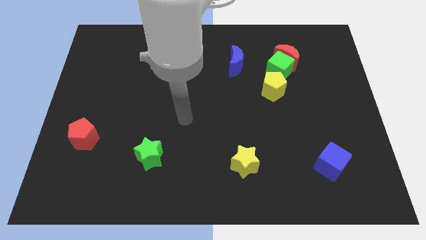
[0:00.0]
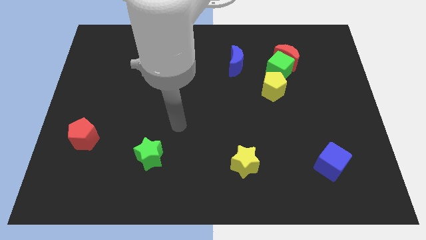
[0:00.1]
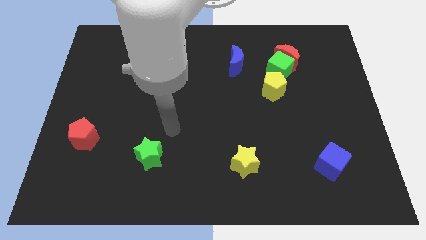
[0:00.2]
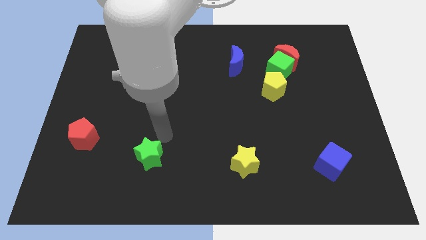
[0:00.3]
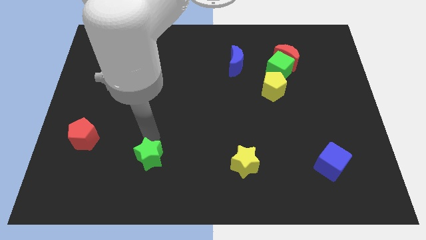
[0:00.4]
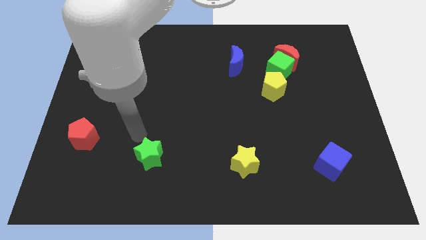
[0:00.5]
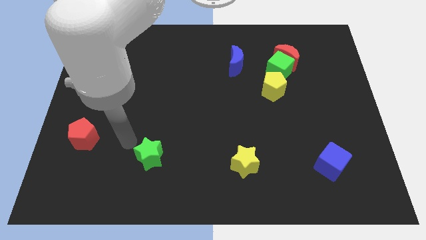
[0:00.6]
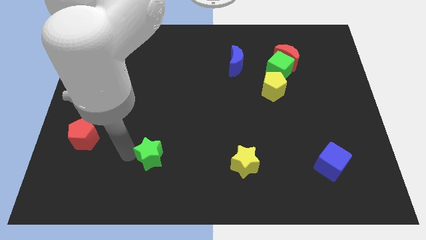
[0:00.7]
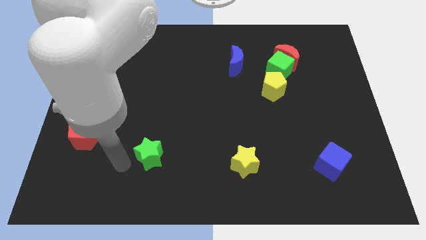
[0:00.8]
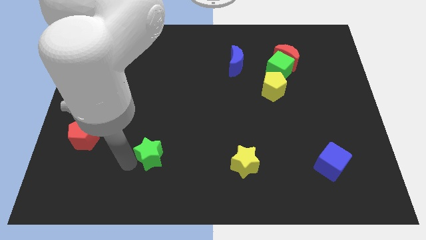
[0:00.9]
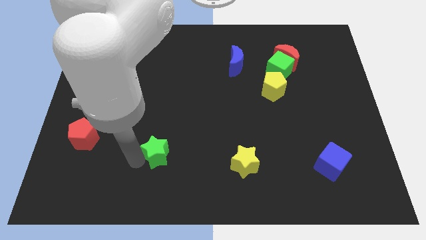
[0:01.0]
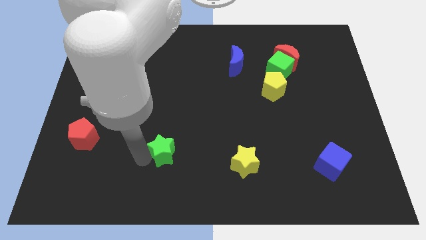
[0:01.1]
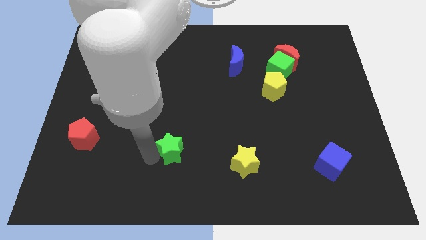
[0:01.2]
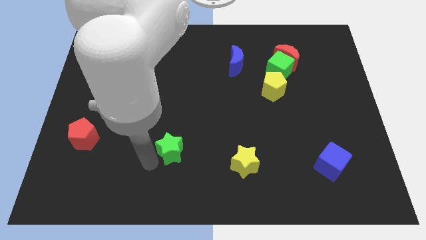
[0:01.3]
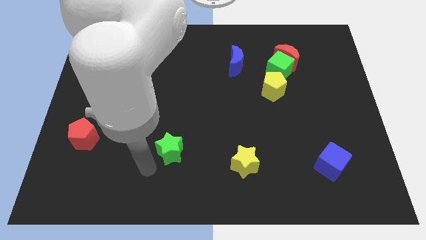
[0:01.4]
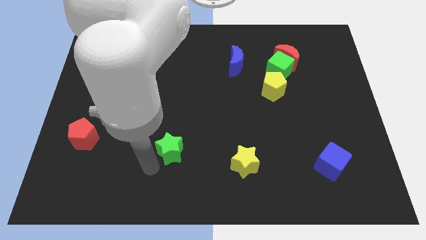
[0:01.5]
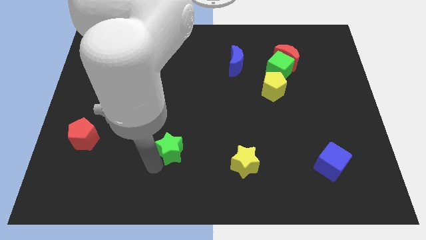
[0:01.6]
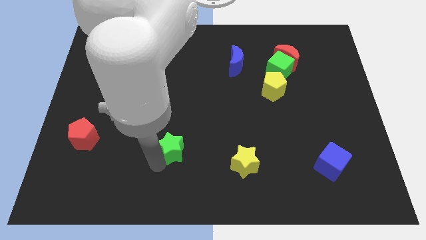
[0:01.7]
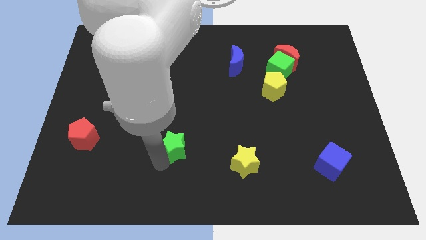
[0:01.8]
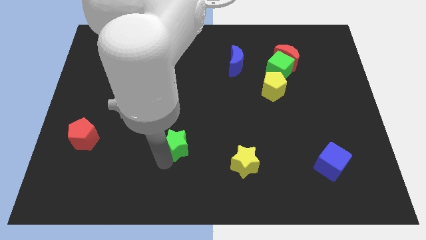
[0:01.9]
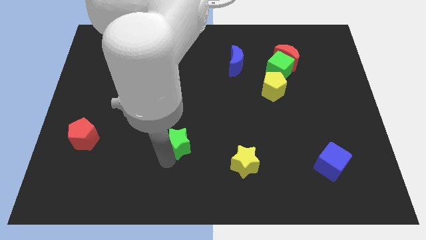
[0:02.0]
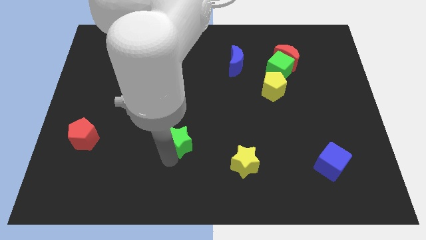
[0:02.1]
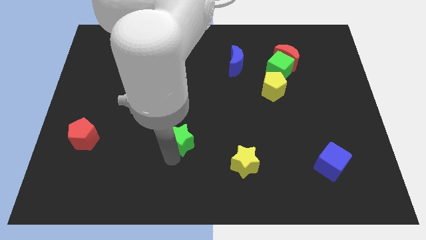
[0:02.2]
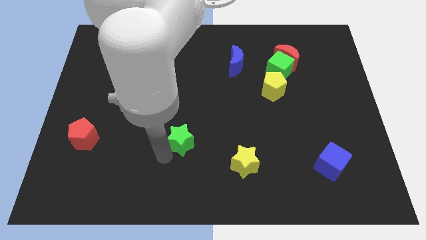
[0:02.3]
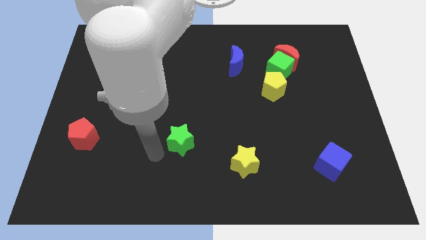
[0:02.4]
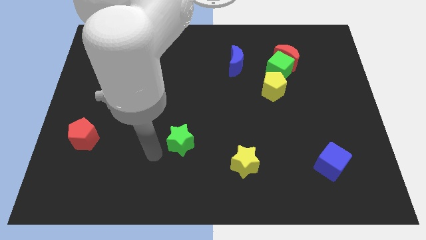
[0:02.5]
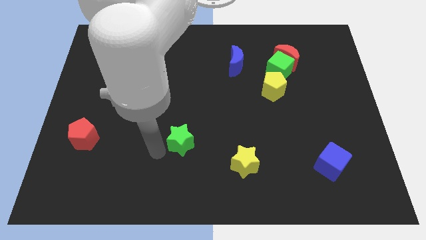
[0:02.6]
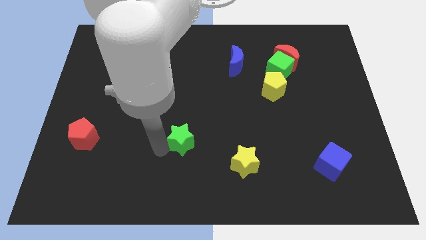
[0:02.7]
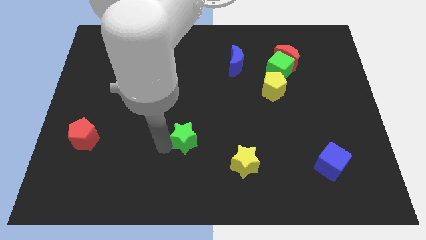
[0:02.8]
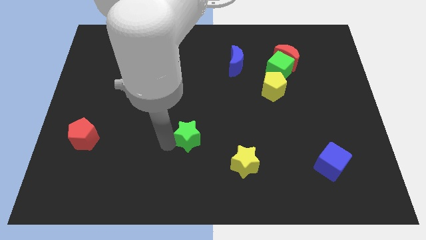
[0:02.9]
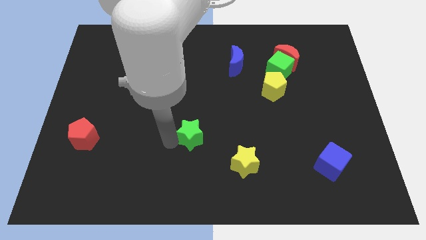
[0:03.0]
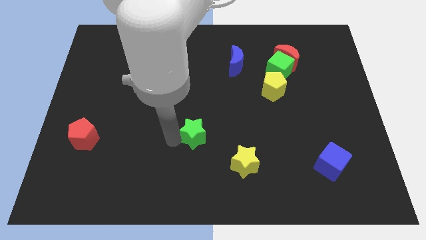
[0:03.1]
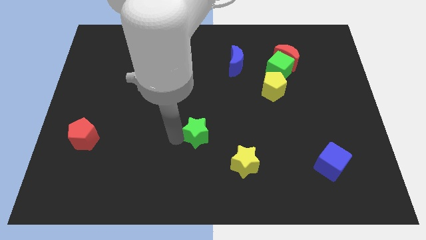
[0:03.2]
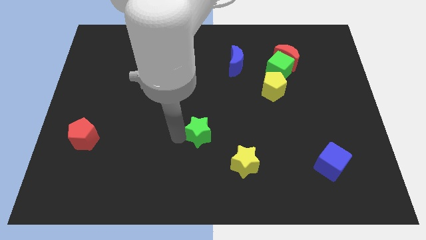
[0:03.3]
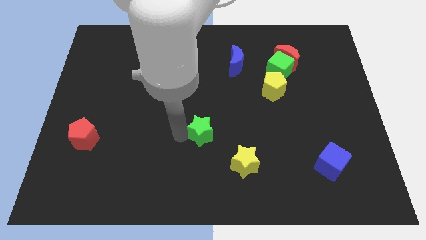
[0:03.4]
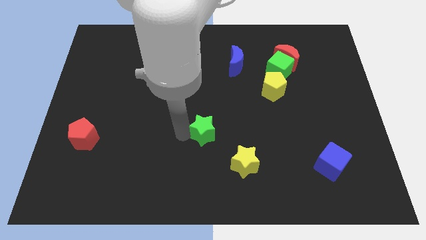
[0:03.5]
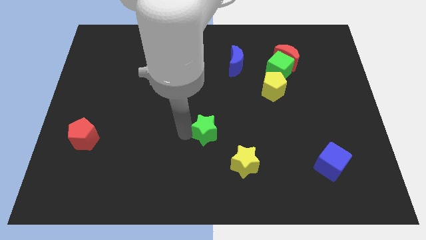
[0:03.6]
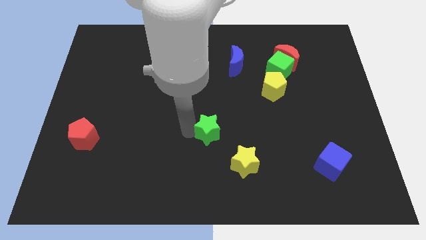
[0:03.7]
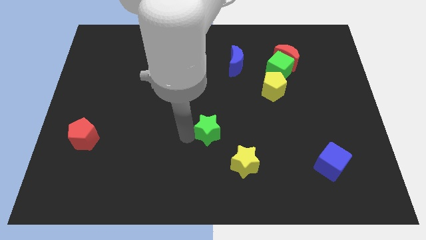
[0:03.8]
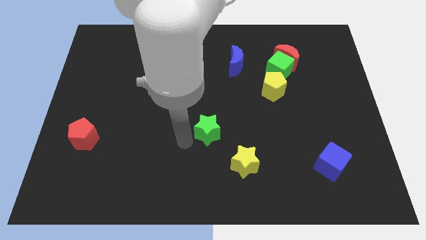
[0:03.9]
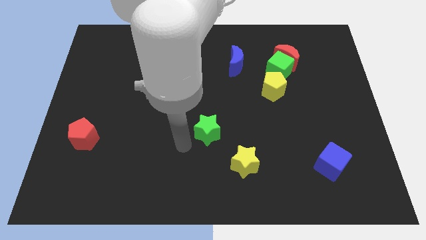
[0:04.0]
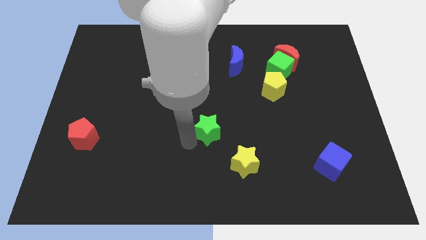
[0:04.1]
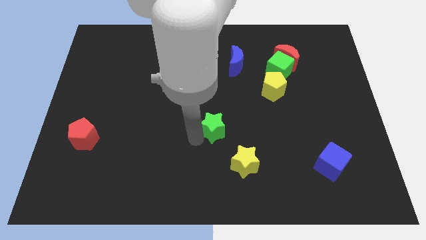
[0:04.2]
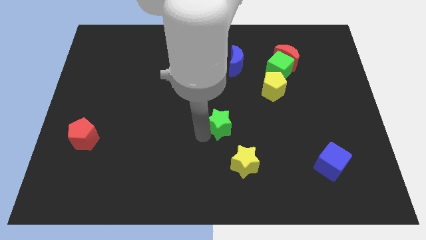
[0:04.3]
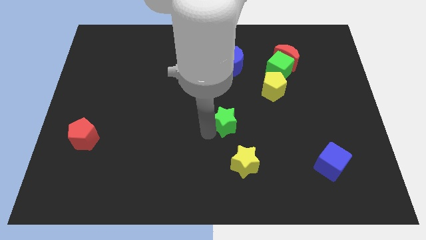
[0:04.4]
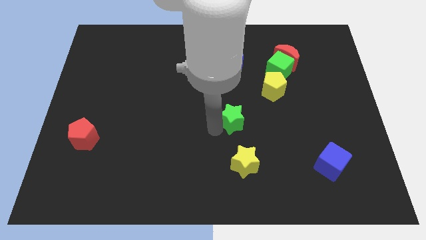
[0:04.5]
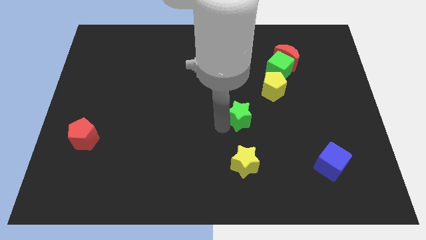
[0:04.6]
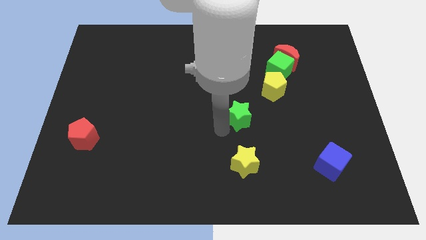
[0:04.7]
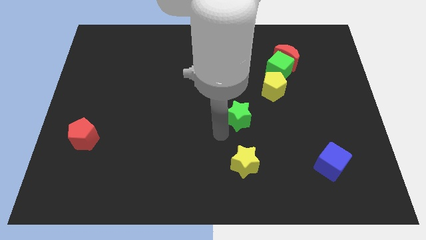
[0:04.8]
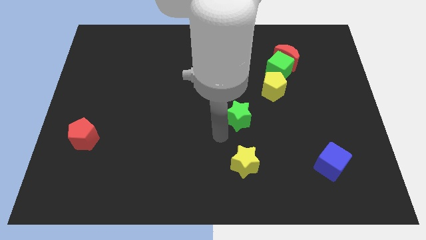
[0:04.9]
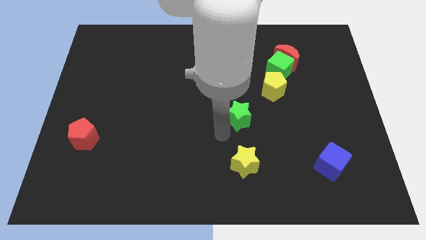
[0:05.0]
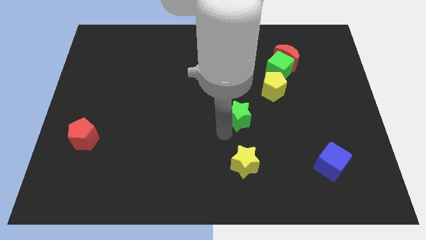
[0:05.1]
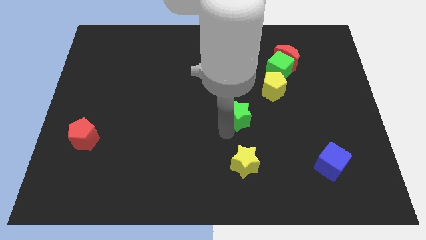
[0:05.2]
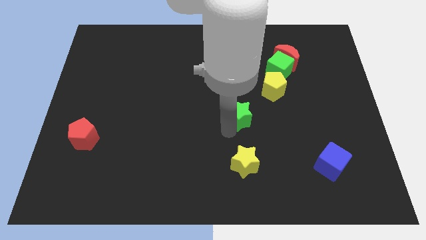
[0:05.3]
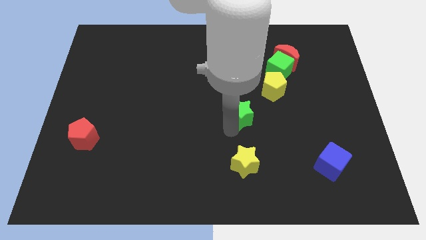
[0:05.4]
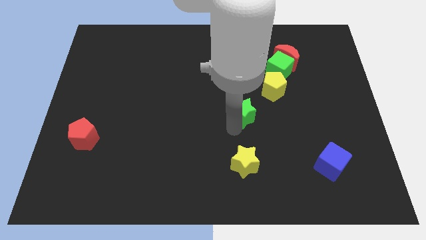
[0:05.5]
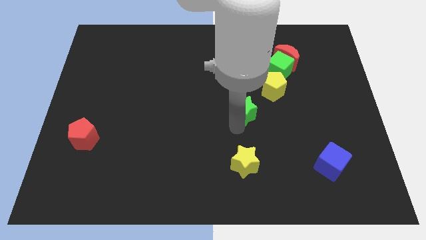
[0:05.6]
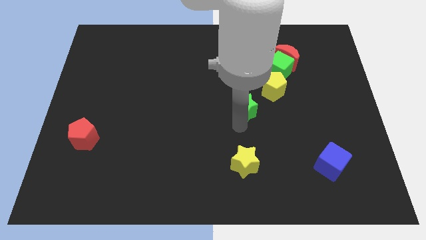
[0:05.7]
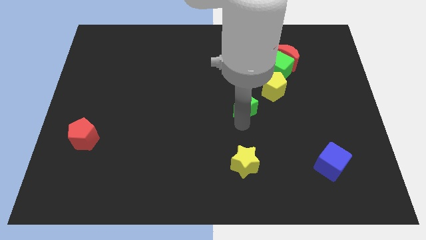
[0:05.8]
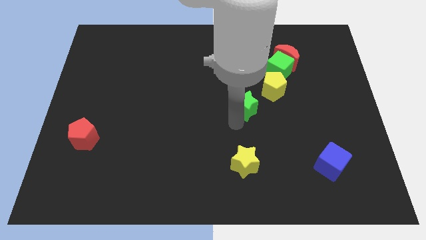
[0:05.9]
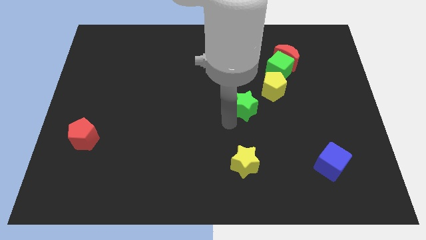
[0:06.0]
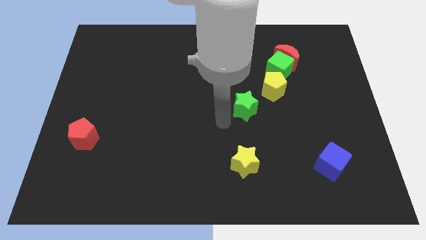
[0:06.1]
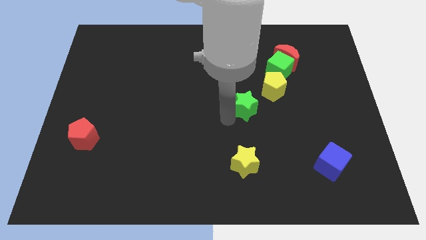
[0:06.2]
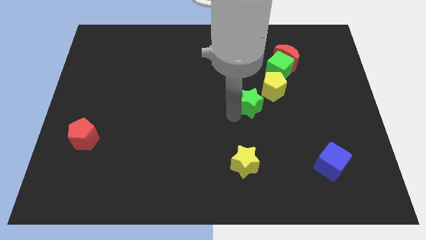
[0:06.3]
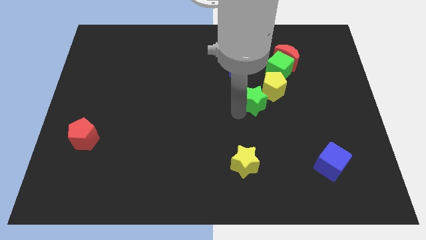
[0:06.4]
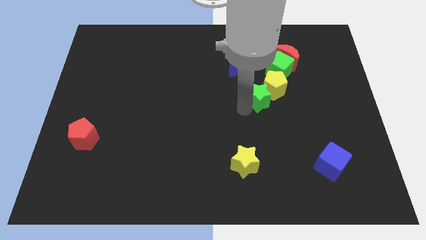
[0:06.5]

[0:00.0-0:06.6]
move the green star next to the yellow pentagon

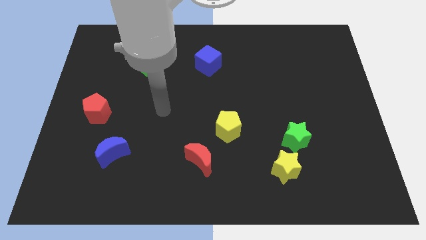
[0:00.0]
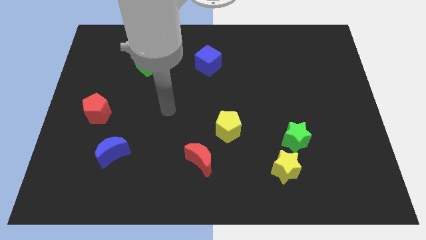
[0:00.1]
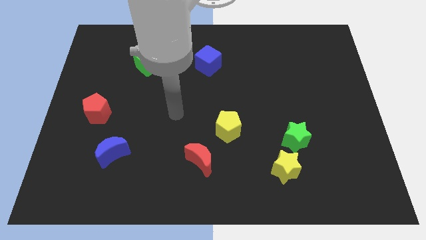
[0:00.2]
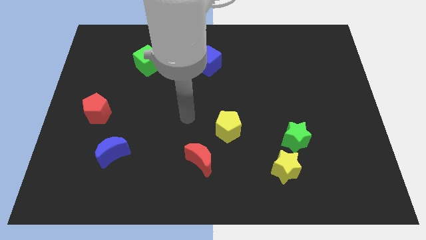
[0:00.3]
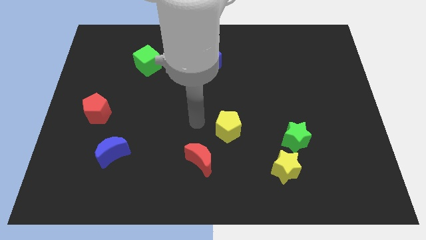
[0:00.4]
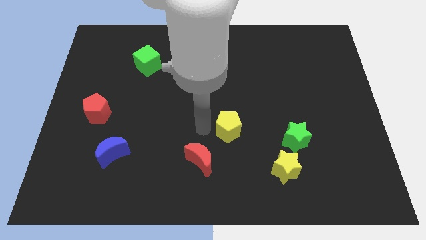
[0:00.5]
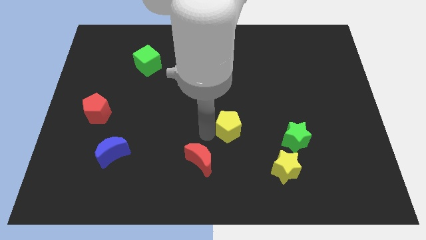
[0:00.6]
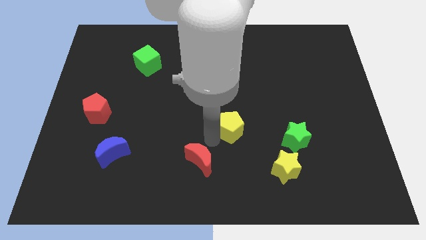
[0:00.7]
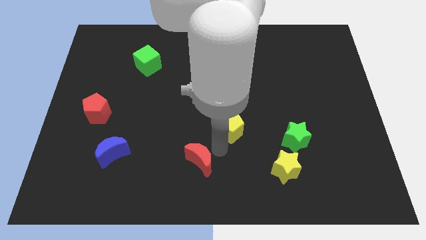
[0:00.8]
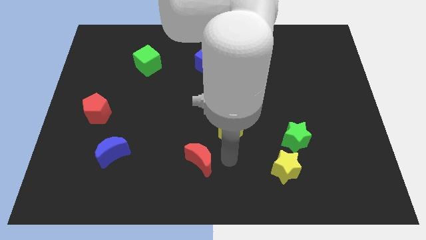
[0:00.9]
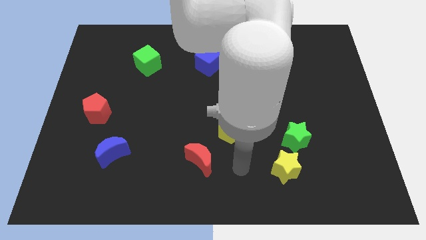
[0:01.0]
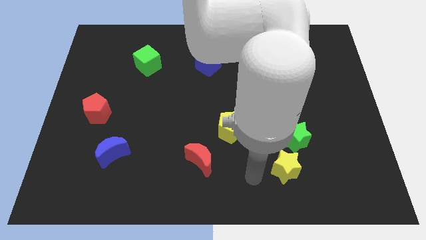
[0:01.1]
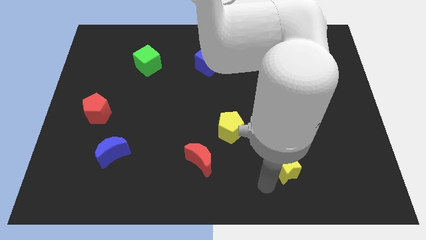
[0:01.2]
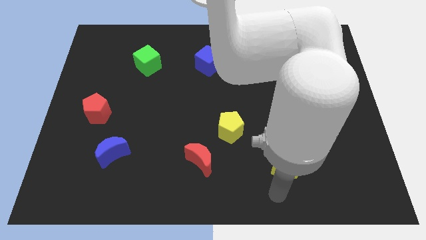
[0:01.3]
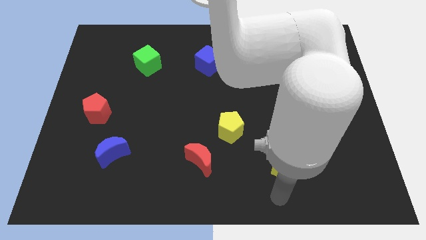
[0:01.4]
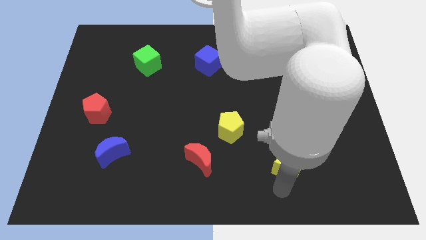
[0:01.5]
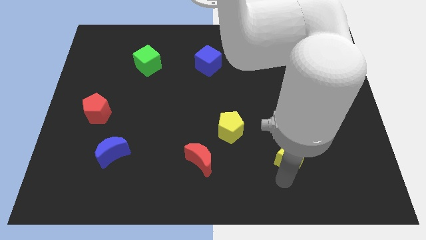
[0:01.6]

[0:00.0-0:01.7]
push the yellow star to the green star
